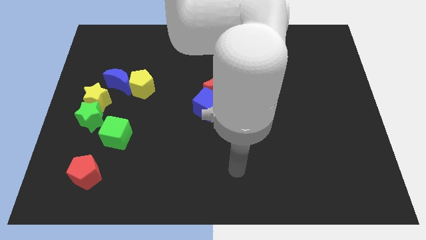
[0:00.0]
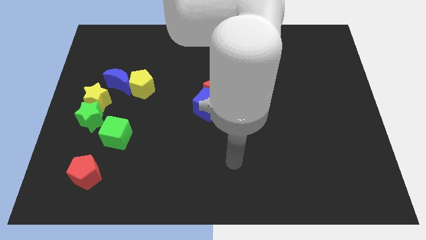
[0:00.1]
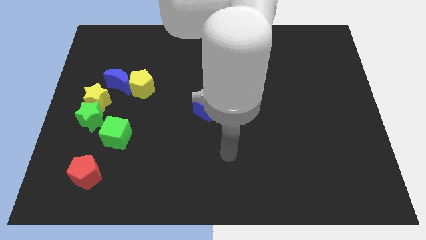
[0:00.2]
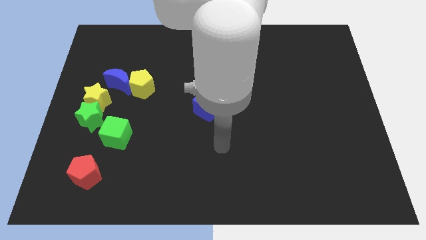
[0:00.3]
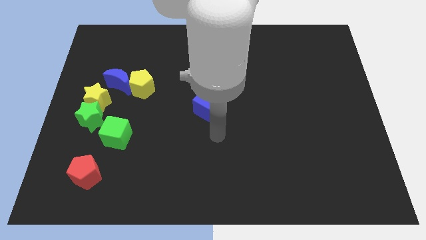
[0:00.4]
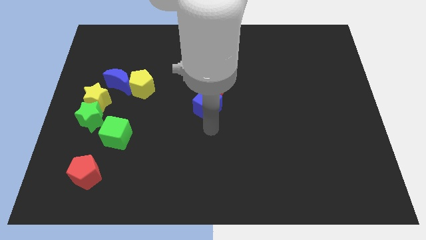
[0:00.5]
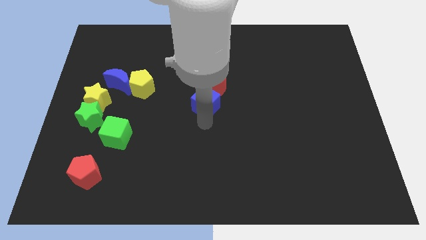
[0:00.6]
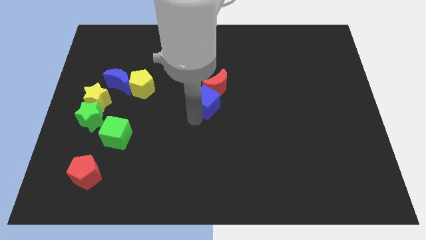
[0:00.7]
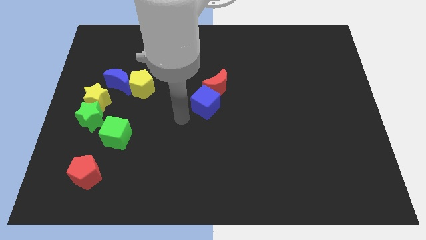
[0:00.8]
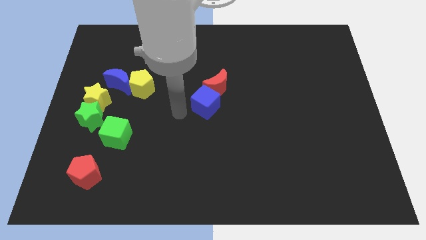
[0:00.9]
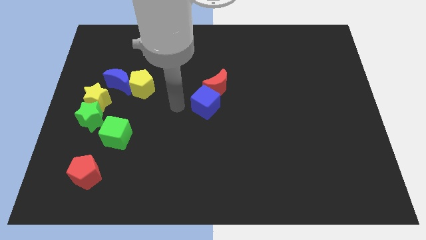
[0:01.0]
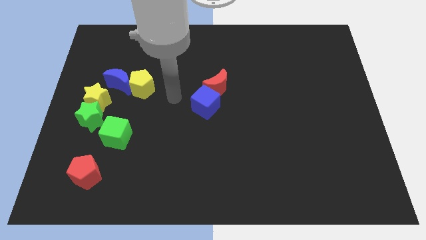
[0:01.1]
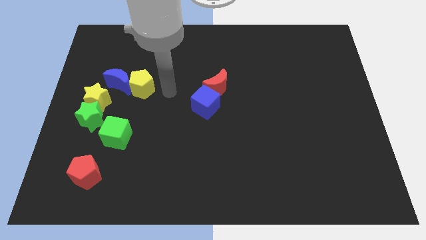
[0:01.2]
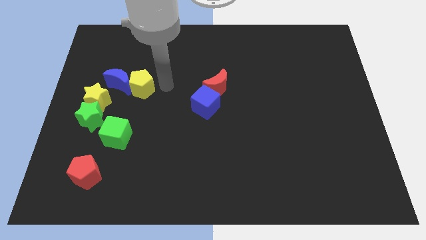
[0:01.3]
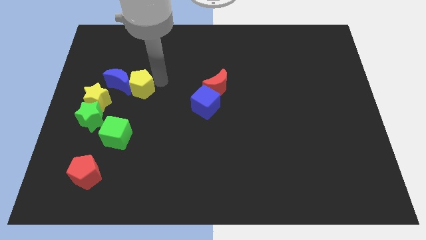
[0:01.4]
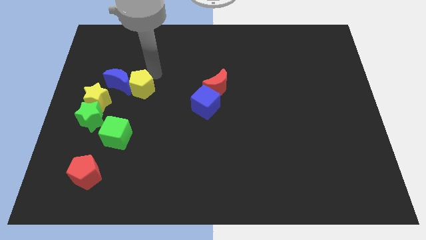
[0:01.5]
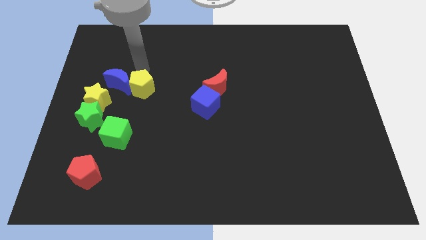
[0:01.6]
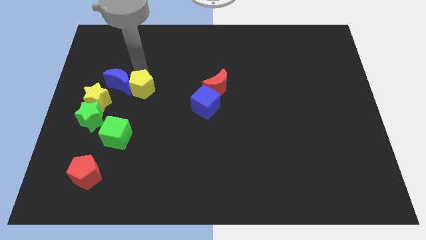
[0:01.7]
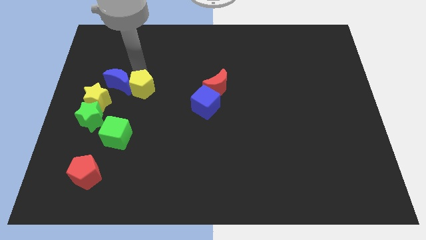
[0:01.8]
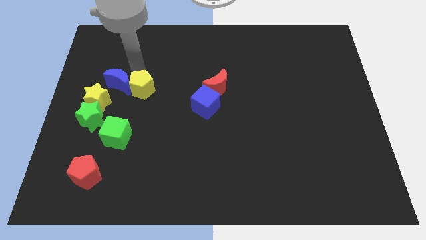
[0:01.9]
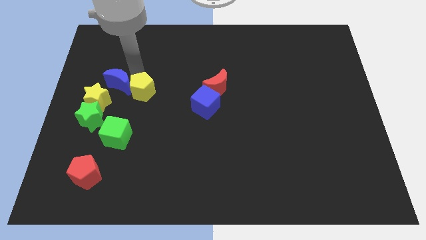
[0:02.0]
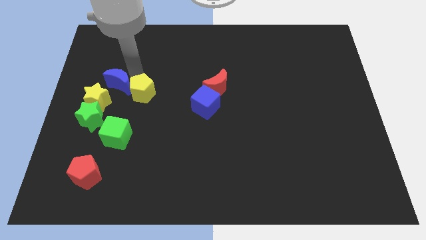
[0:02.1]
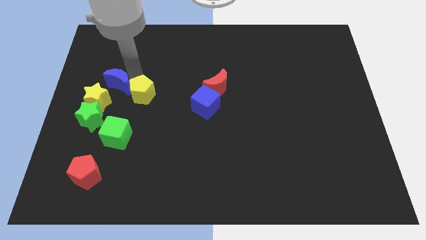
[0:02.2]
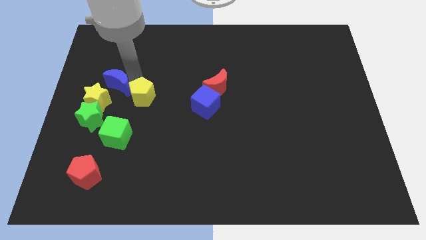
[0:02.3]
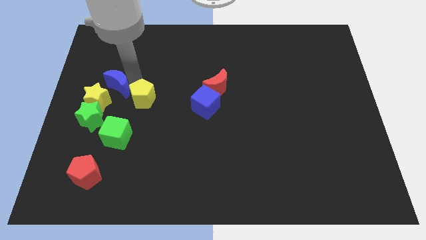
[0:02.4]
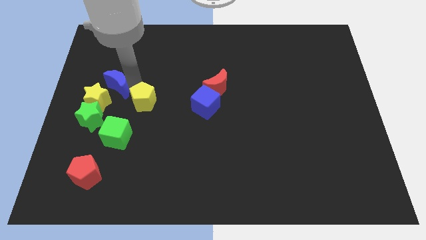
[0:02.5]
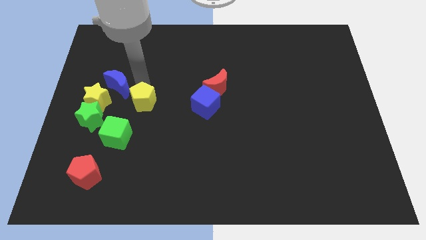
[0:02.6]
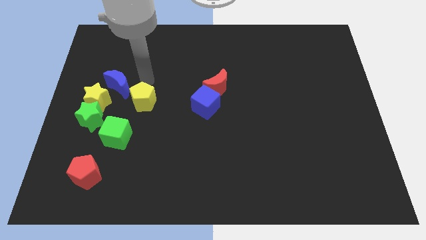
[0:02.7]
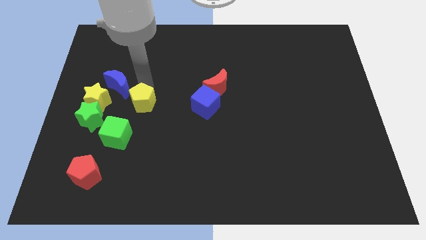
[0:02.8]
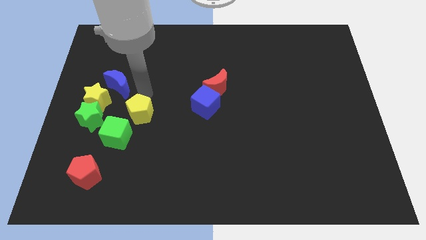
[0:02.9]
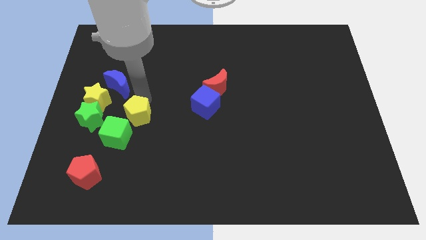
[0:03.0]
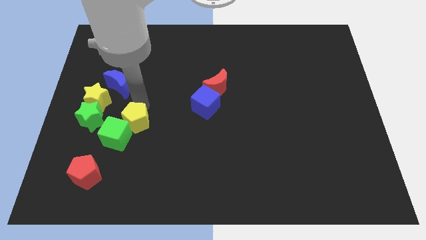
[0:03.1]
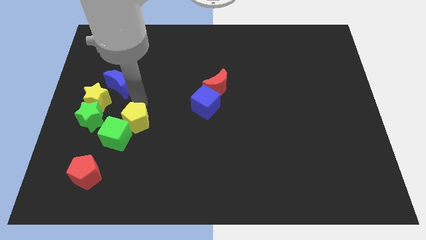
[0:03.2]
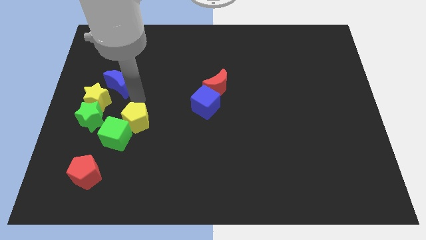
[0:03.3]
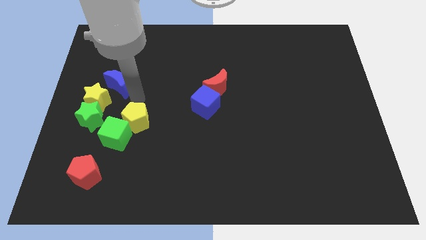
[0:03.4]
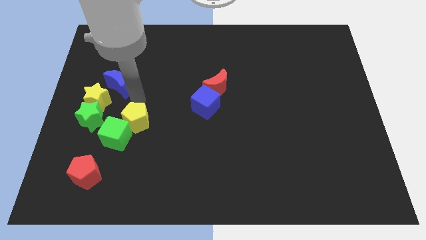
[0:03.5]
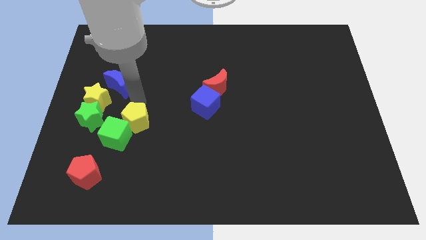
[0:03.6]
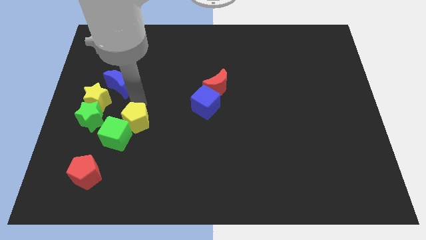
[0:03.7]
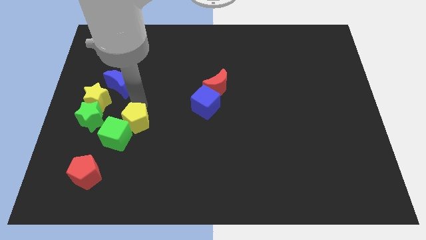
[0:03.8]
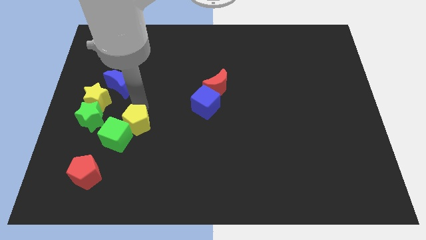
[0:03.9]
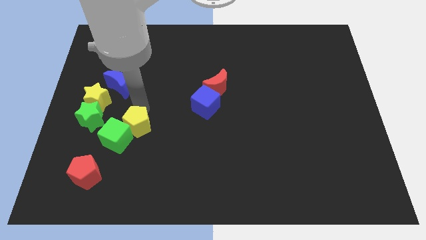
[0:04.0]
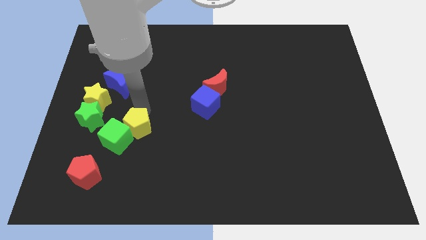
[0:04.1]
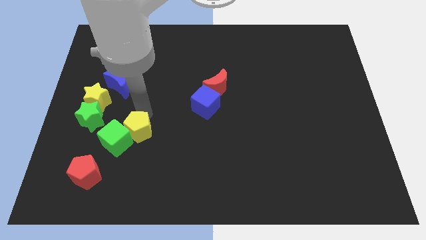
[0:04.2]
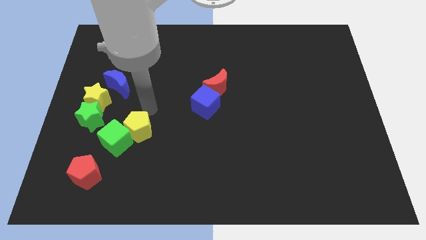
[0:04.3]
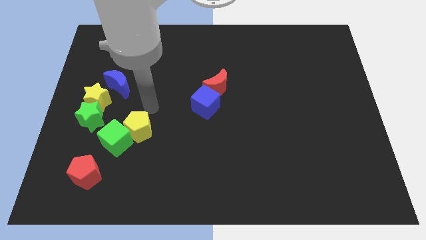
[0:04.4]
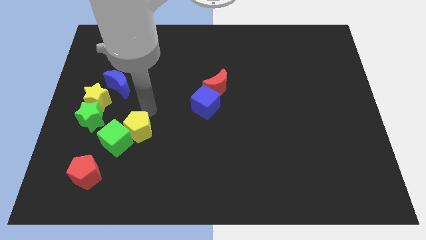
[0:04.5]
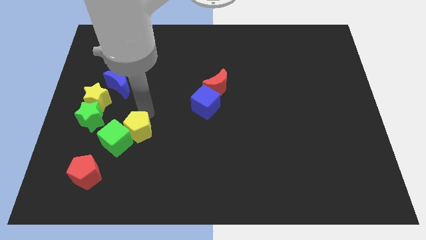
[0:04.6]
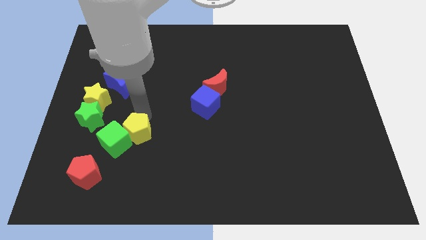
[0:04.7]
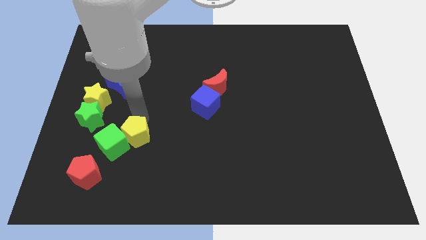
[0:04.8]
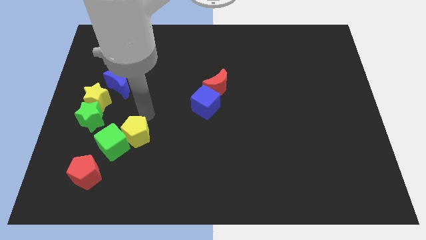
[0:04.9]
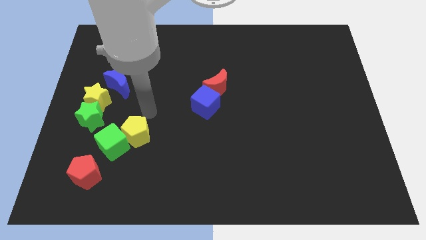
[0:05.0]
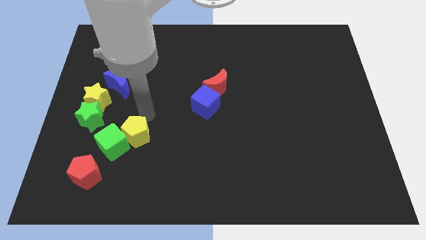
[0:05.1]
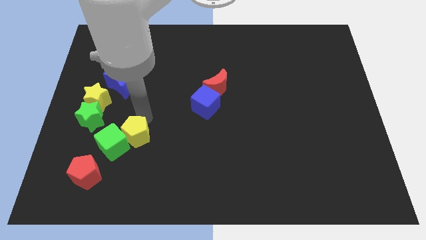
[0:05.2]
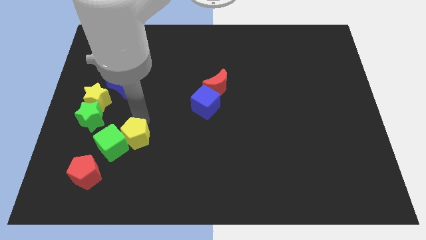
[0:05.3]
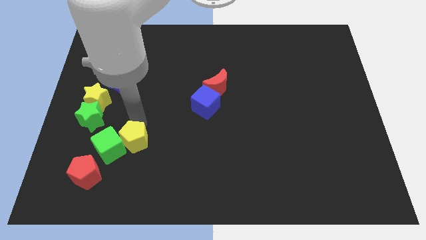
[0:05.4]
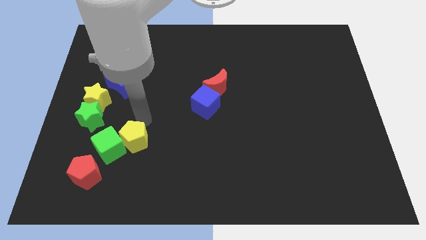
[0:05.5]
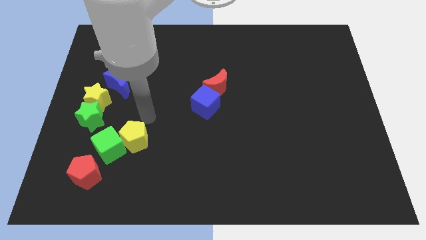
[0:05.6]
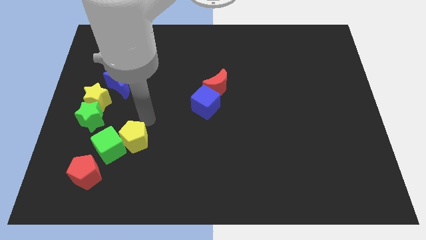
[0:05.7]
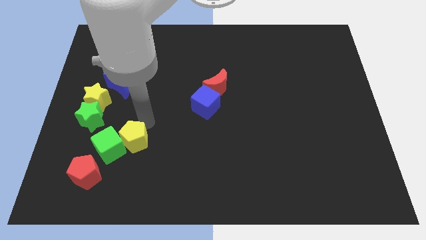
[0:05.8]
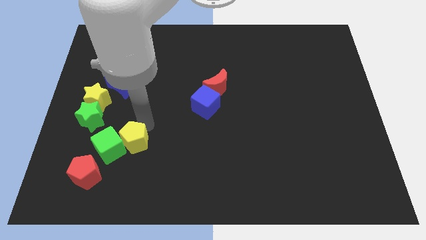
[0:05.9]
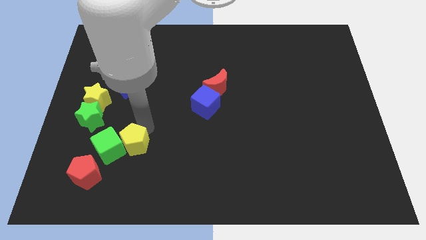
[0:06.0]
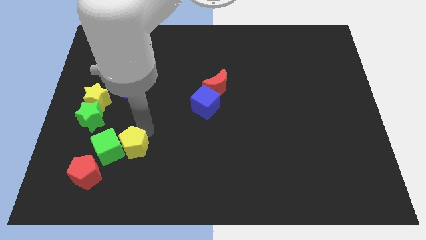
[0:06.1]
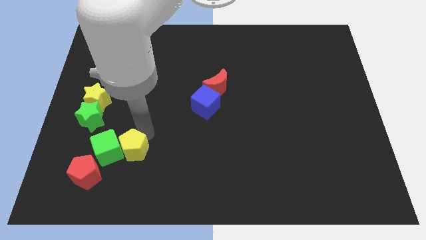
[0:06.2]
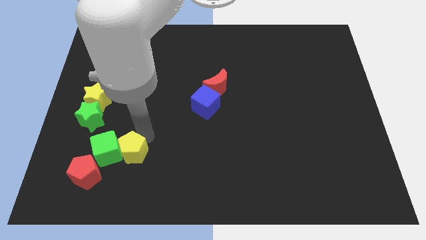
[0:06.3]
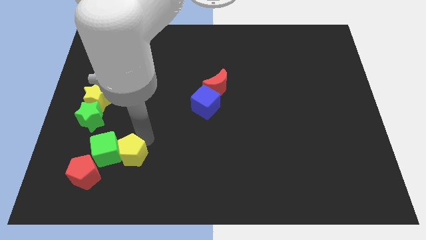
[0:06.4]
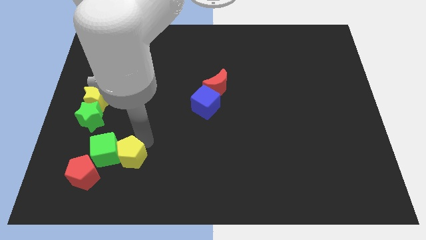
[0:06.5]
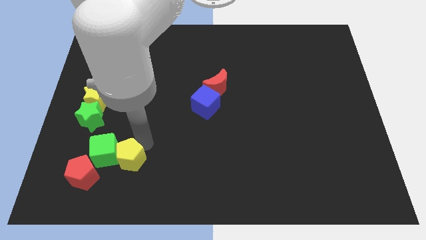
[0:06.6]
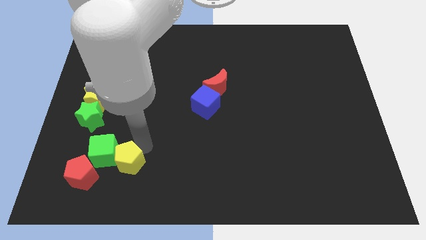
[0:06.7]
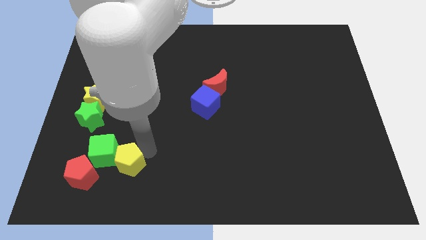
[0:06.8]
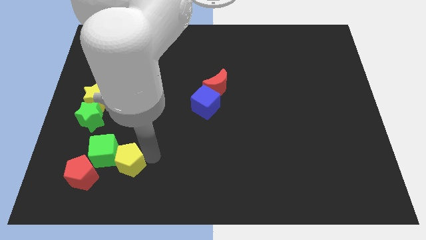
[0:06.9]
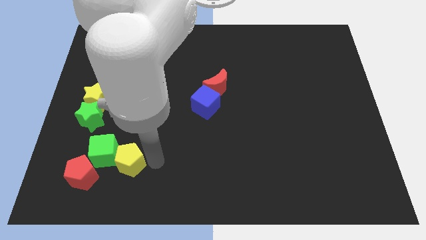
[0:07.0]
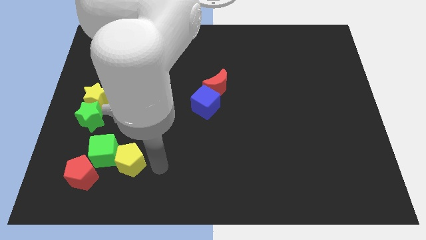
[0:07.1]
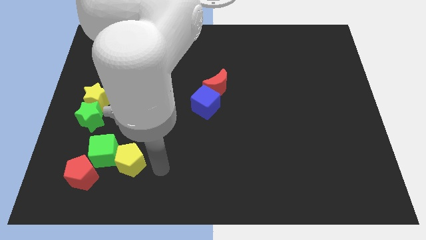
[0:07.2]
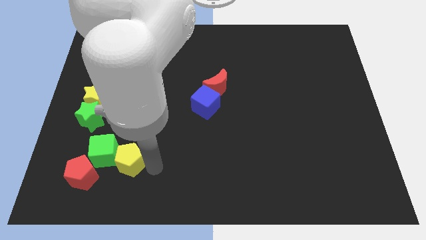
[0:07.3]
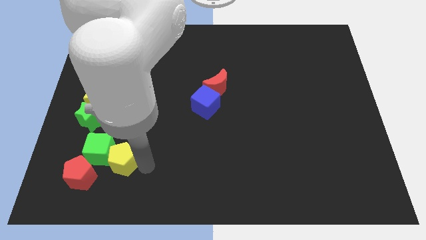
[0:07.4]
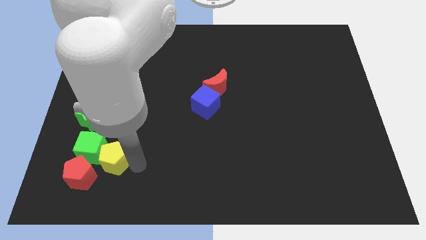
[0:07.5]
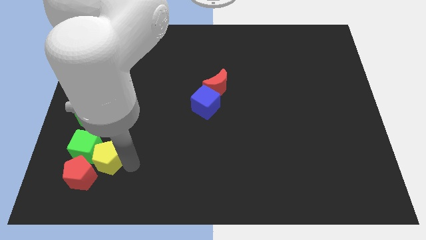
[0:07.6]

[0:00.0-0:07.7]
slide the yellow pentagon above the red pentagon
